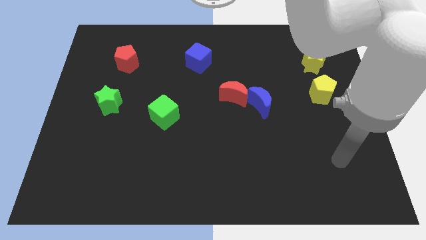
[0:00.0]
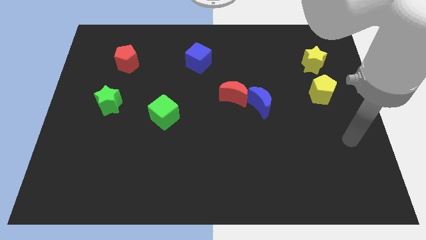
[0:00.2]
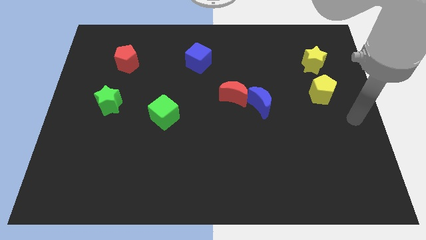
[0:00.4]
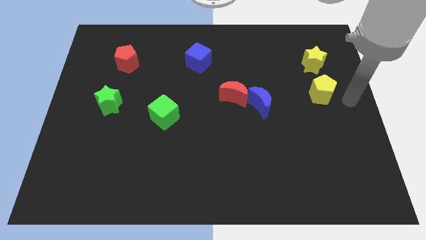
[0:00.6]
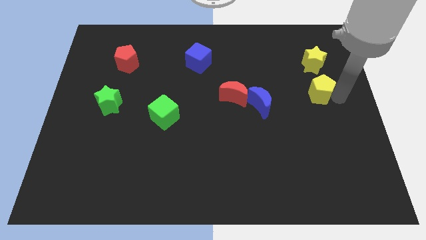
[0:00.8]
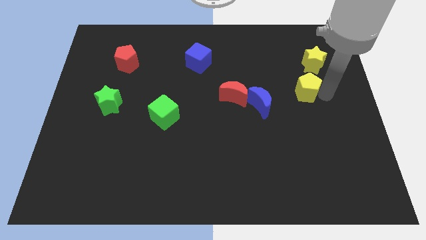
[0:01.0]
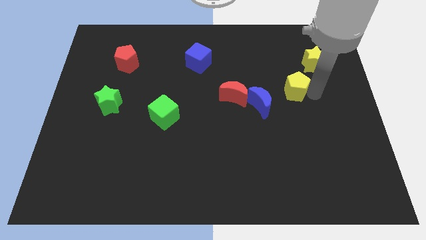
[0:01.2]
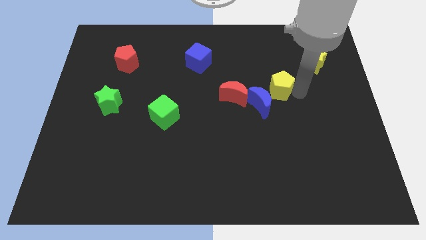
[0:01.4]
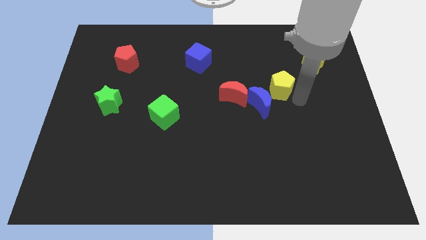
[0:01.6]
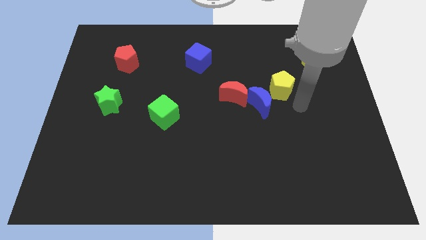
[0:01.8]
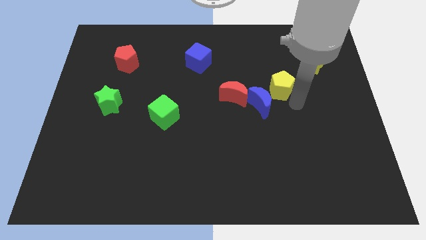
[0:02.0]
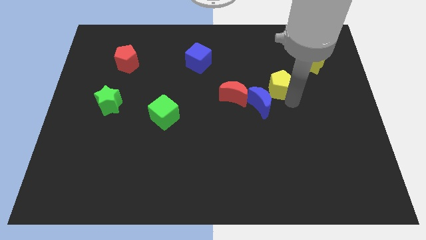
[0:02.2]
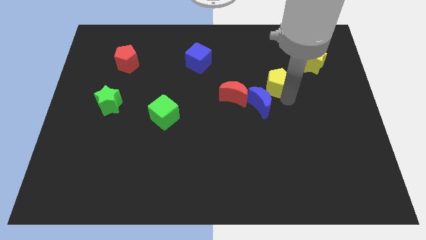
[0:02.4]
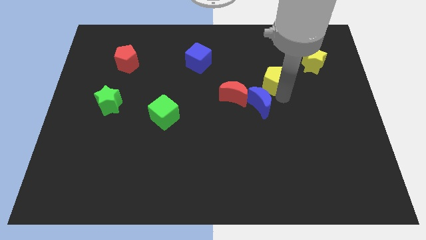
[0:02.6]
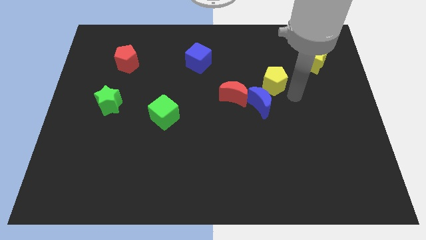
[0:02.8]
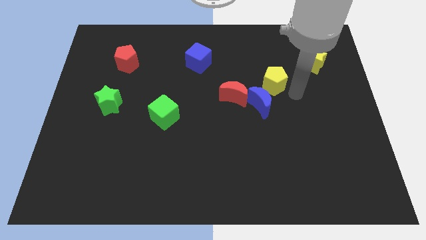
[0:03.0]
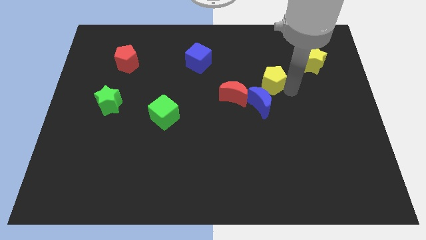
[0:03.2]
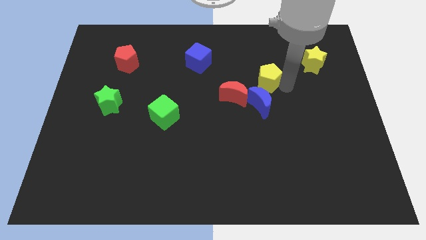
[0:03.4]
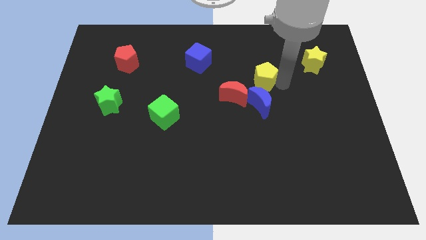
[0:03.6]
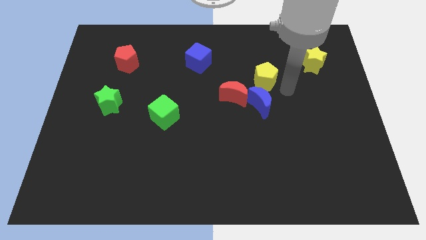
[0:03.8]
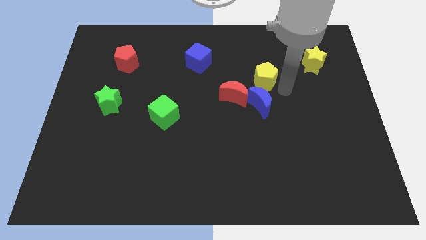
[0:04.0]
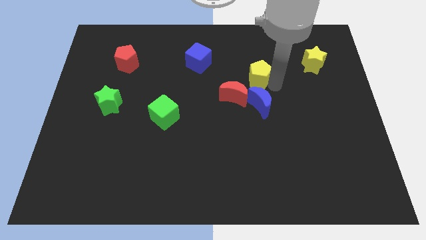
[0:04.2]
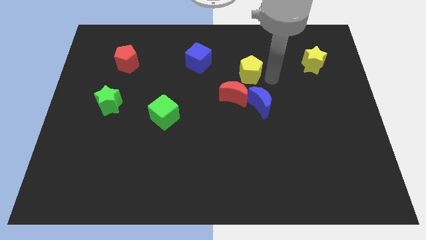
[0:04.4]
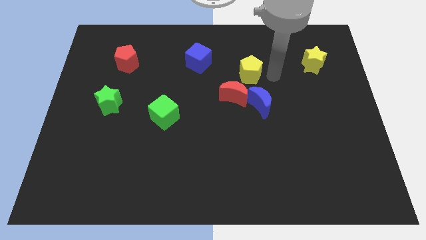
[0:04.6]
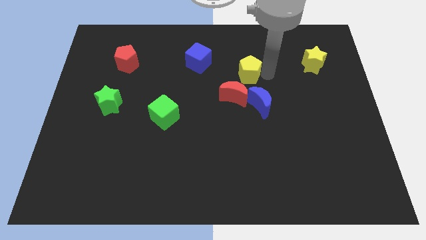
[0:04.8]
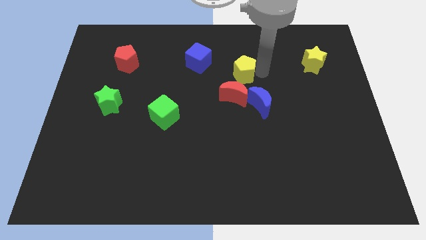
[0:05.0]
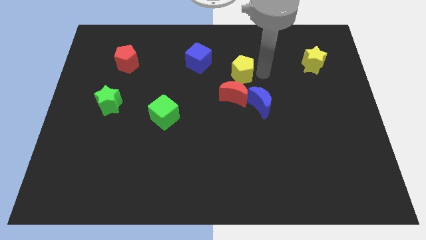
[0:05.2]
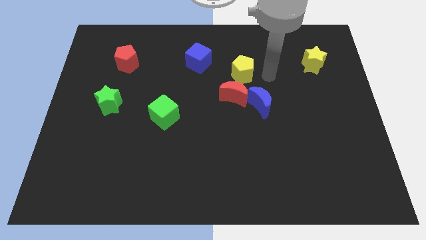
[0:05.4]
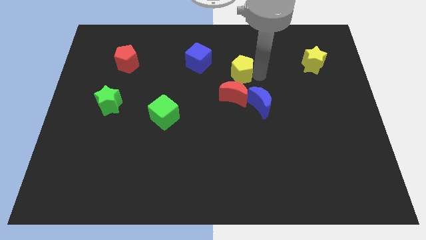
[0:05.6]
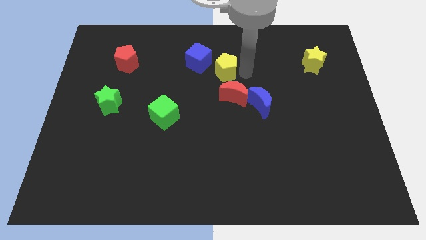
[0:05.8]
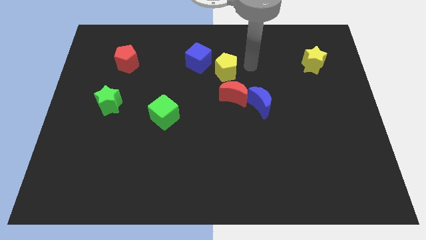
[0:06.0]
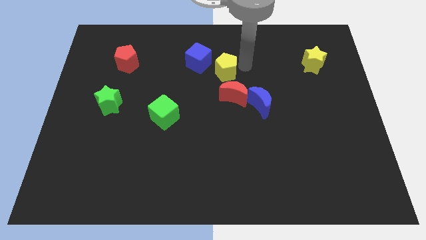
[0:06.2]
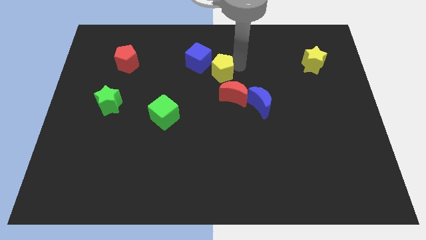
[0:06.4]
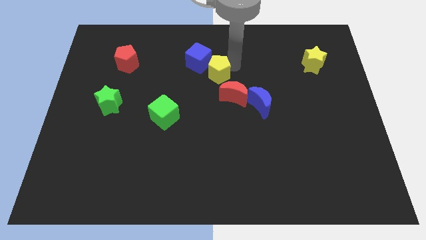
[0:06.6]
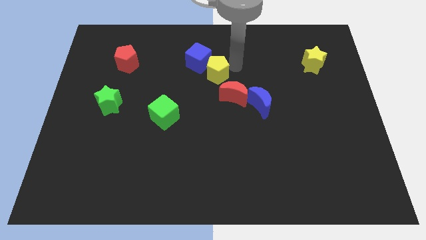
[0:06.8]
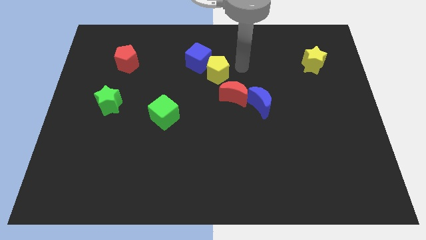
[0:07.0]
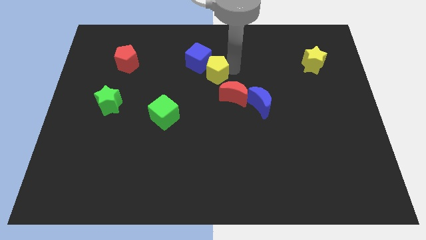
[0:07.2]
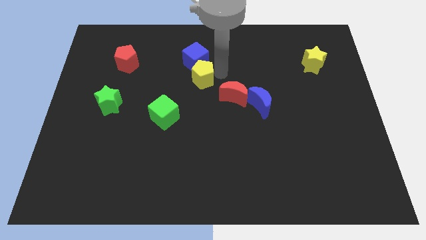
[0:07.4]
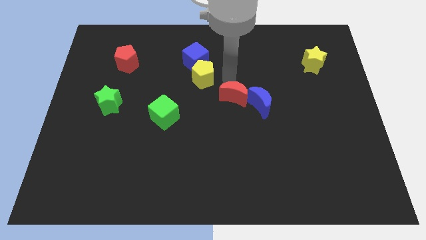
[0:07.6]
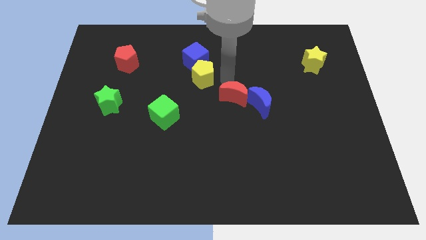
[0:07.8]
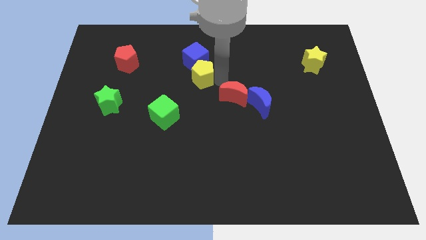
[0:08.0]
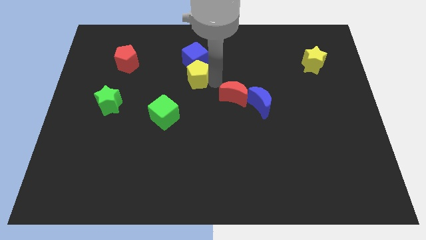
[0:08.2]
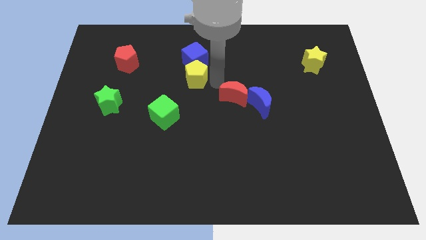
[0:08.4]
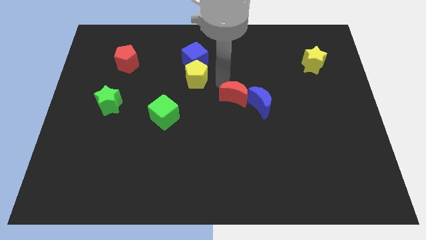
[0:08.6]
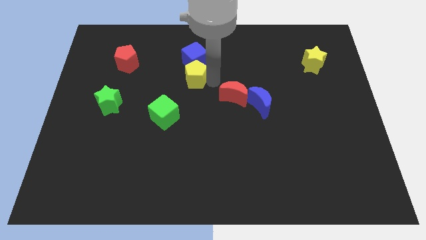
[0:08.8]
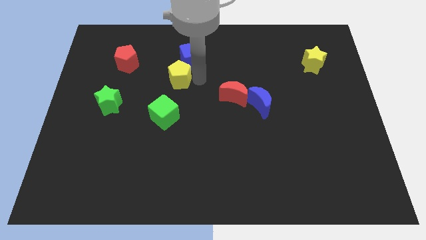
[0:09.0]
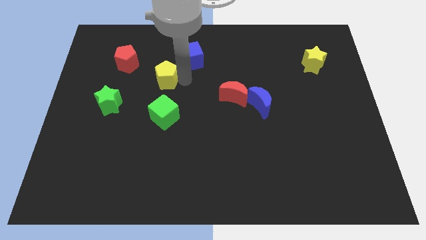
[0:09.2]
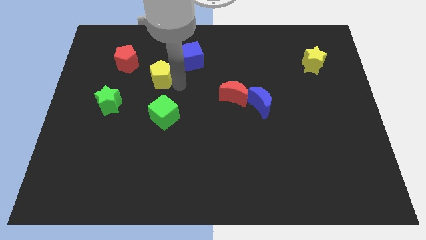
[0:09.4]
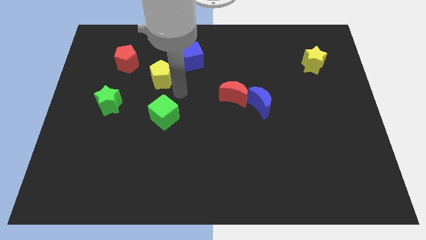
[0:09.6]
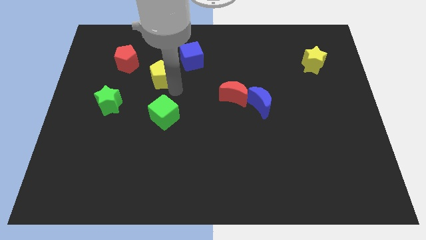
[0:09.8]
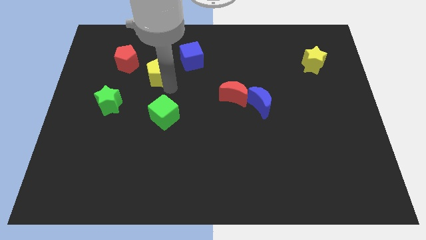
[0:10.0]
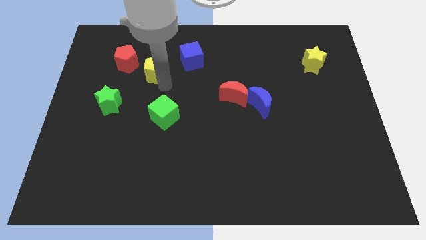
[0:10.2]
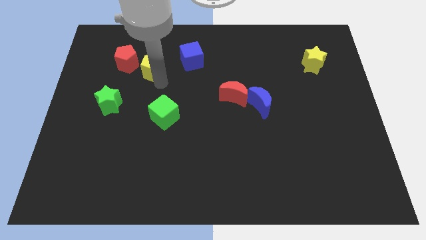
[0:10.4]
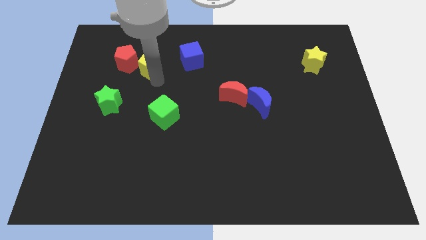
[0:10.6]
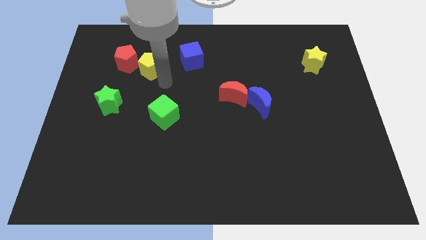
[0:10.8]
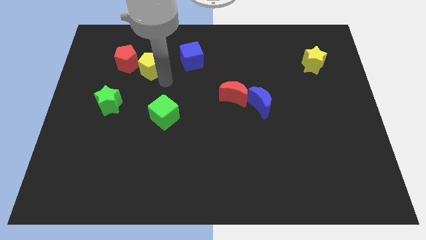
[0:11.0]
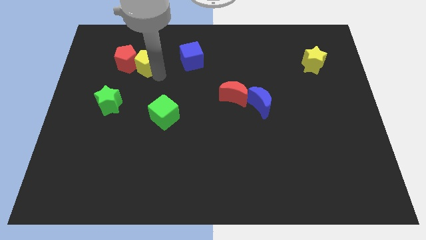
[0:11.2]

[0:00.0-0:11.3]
push the yellow pentagon towards the red pentagon

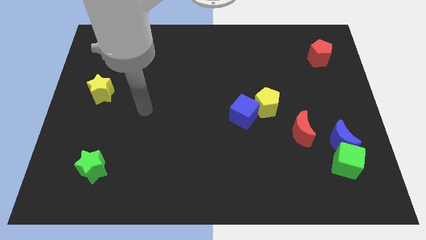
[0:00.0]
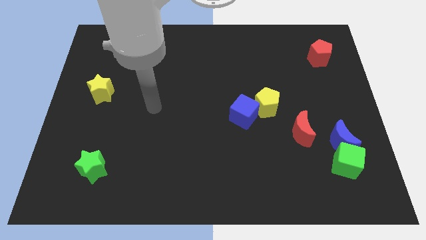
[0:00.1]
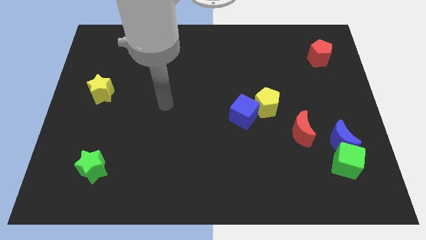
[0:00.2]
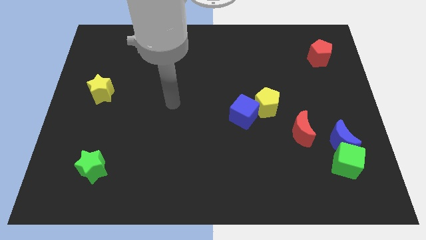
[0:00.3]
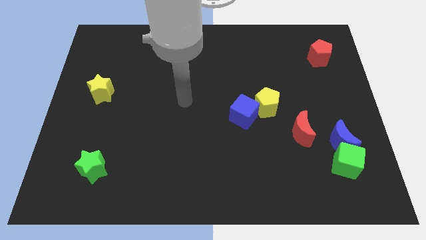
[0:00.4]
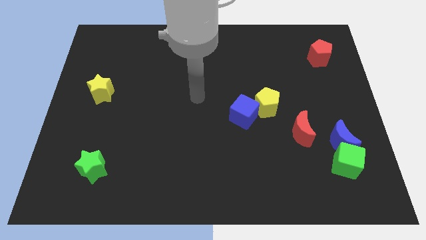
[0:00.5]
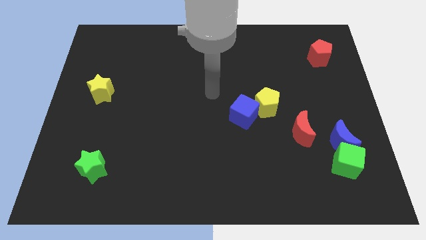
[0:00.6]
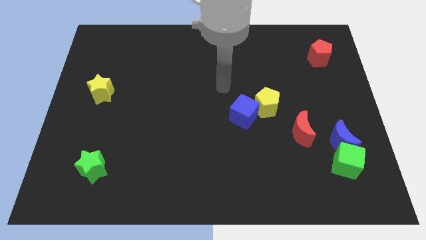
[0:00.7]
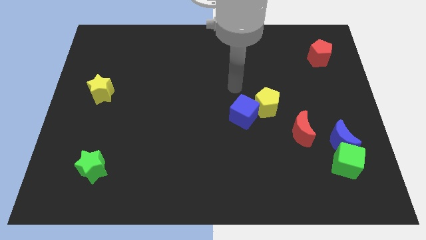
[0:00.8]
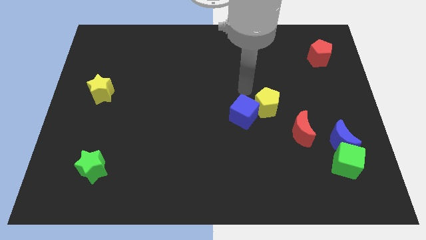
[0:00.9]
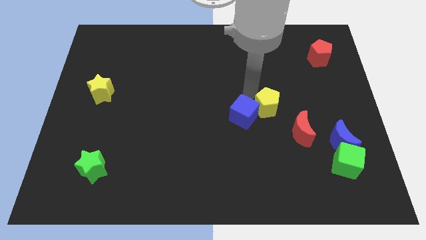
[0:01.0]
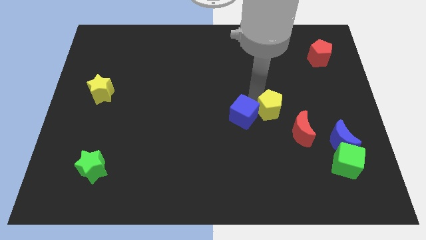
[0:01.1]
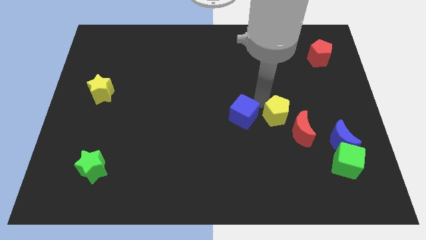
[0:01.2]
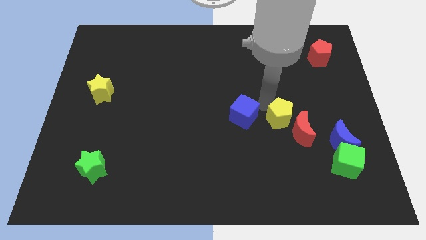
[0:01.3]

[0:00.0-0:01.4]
put the yellow pentagon to the red moon
